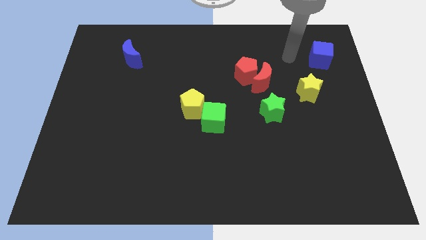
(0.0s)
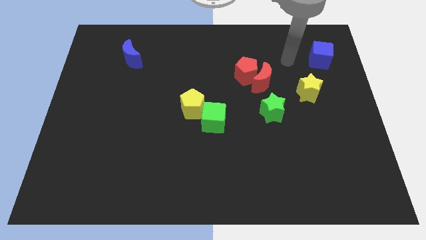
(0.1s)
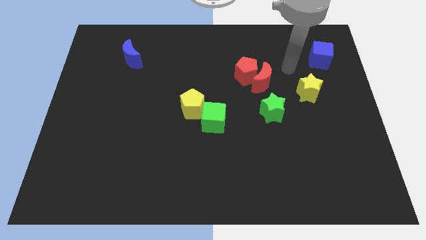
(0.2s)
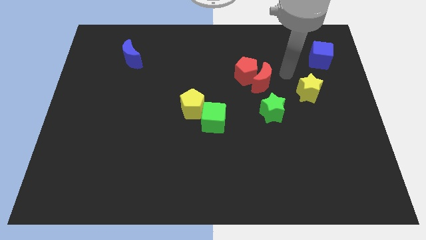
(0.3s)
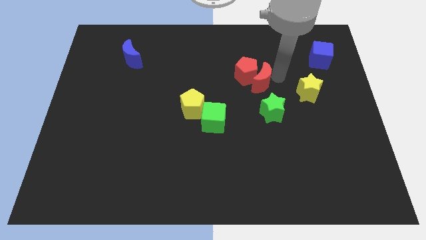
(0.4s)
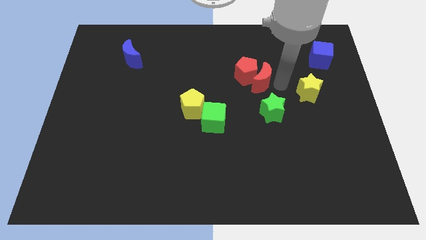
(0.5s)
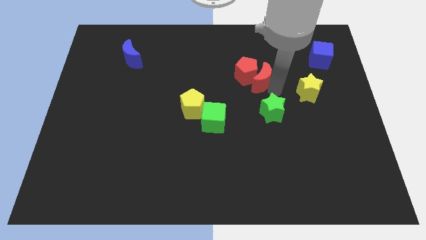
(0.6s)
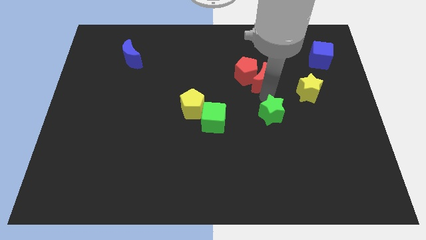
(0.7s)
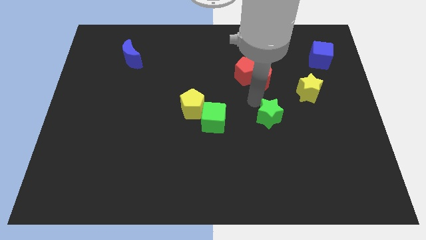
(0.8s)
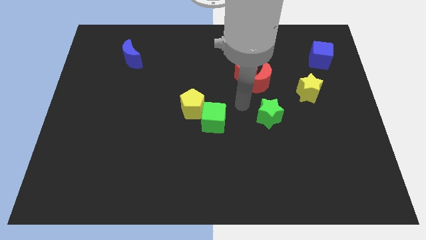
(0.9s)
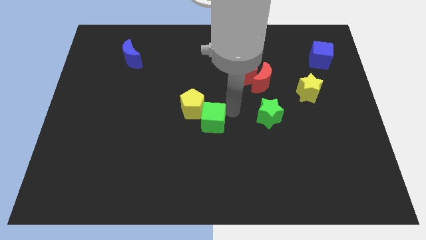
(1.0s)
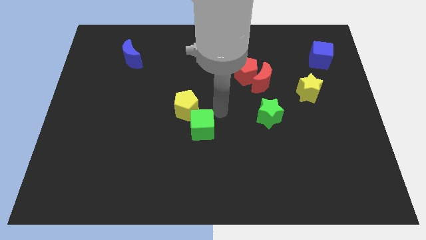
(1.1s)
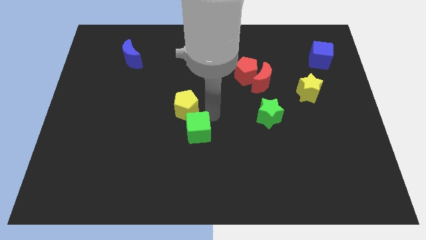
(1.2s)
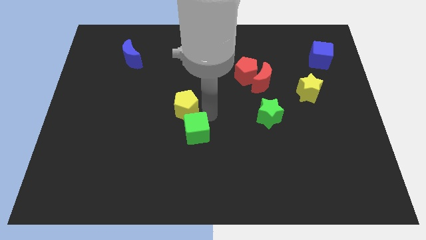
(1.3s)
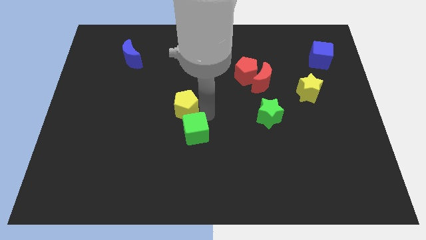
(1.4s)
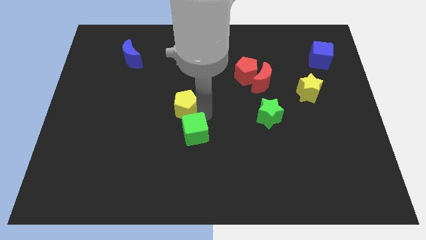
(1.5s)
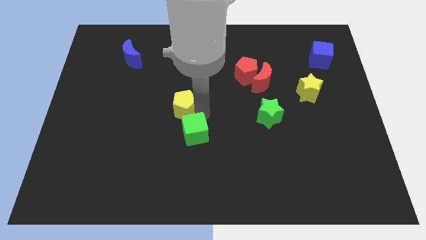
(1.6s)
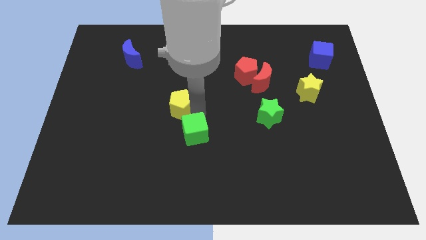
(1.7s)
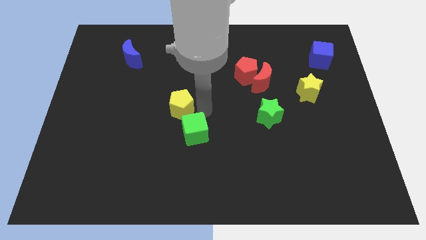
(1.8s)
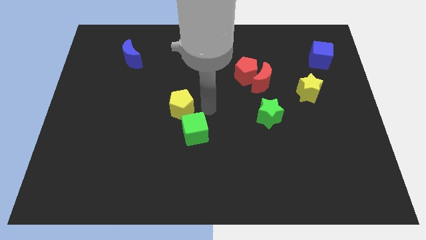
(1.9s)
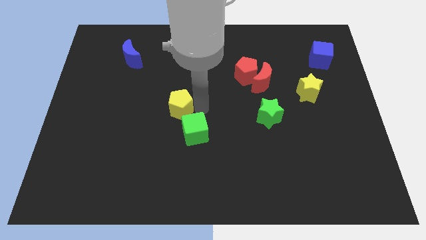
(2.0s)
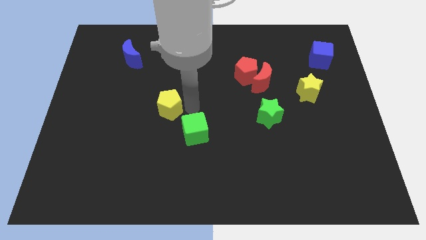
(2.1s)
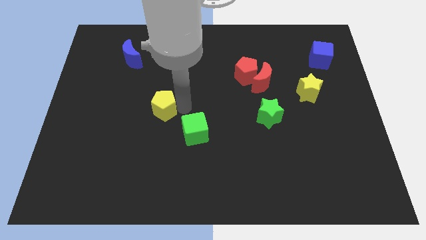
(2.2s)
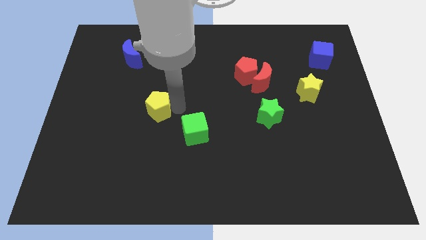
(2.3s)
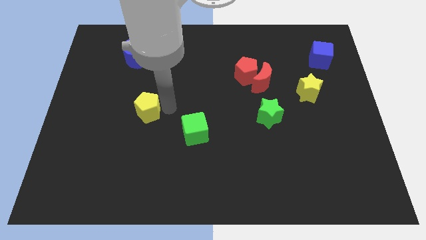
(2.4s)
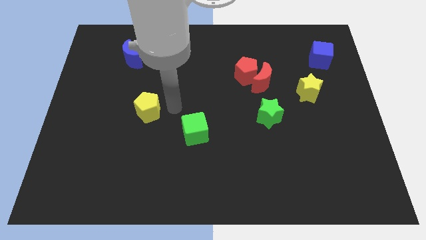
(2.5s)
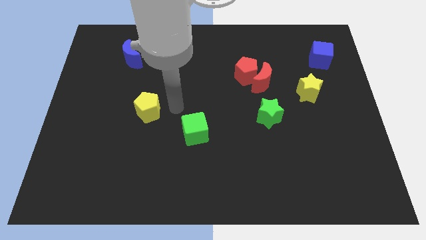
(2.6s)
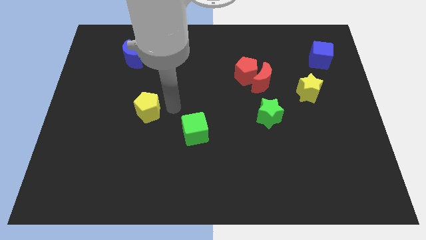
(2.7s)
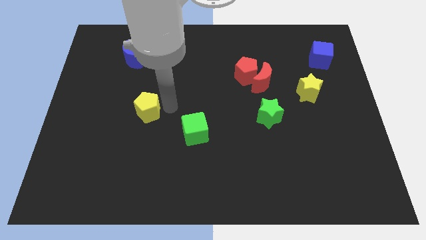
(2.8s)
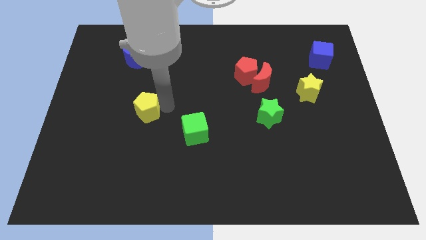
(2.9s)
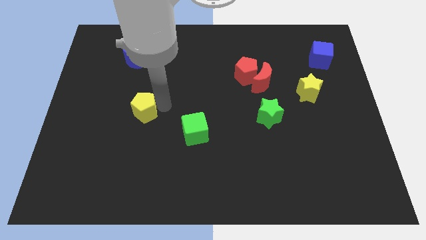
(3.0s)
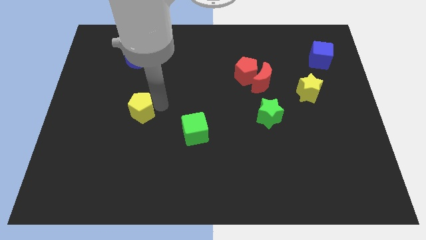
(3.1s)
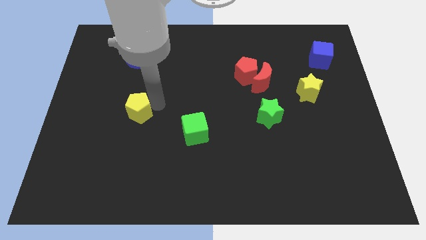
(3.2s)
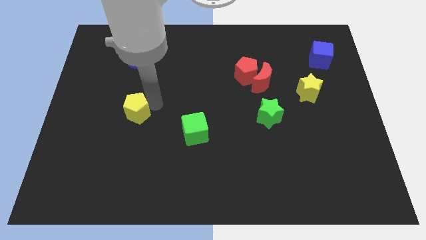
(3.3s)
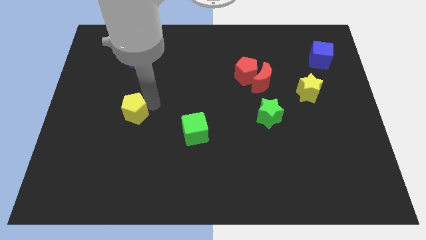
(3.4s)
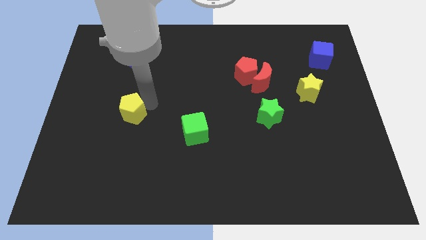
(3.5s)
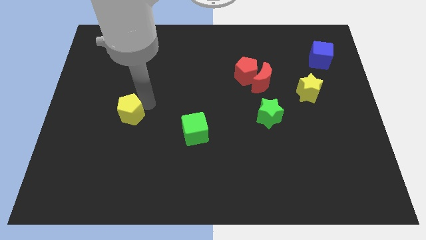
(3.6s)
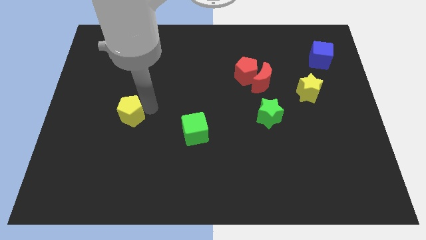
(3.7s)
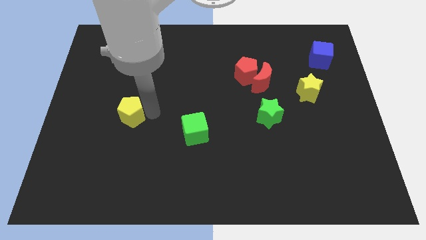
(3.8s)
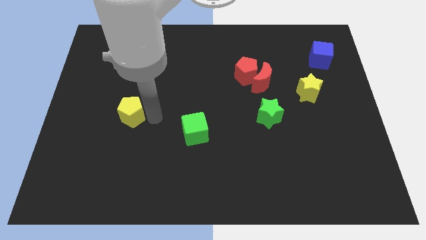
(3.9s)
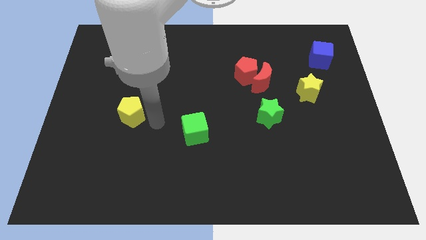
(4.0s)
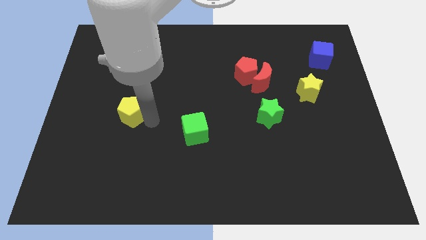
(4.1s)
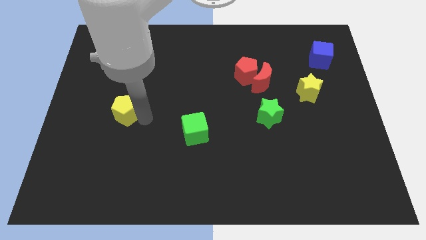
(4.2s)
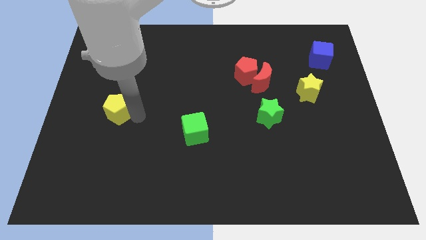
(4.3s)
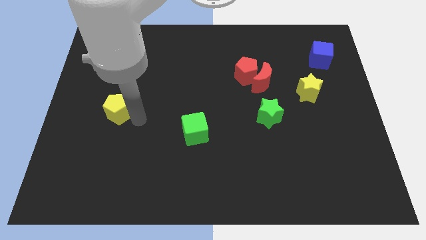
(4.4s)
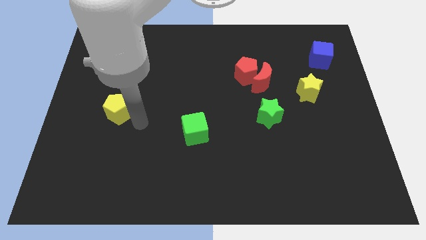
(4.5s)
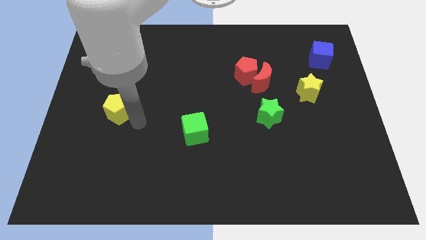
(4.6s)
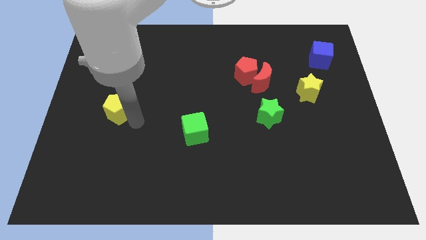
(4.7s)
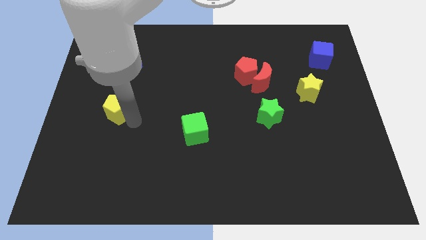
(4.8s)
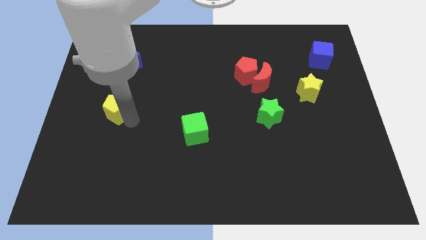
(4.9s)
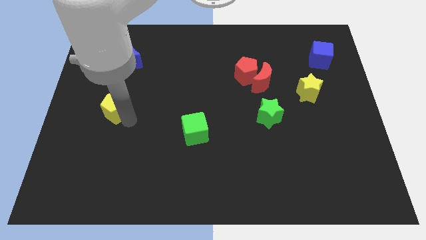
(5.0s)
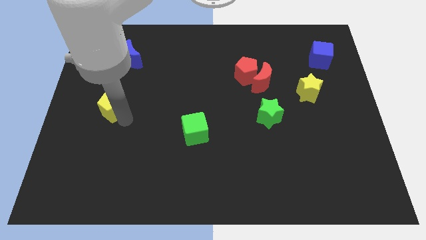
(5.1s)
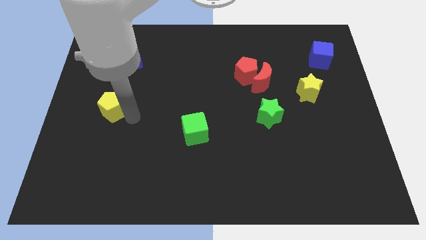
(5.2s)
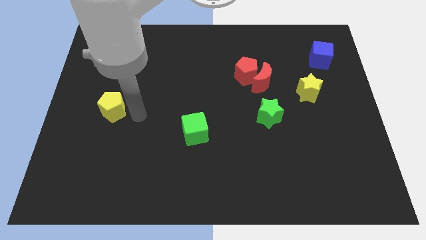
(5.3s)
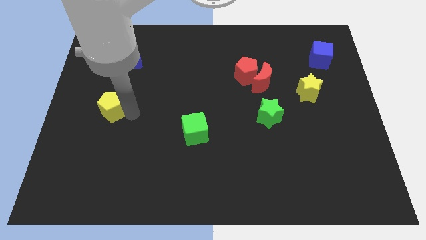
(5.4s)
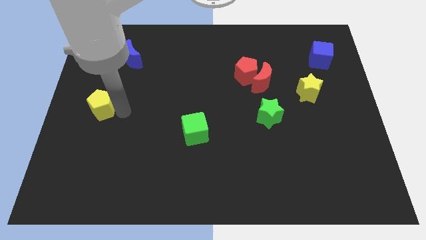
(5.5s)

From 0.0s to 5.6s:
slide the yellow pentagon to the left side

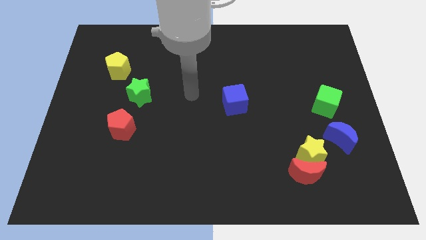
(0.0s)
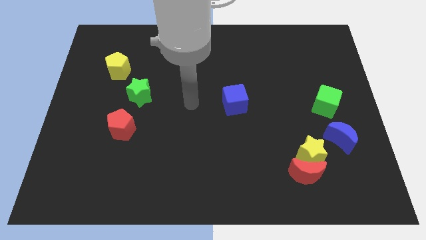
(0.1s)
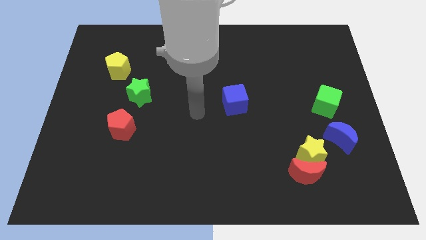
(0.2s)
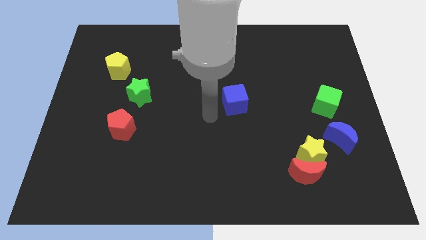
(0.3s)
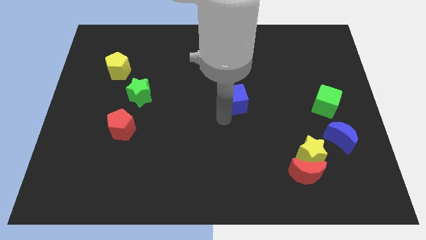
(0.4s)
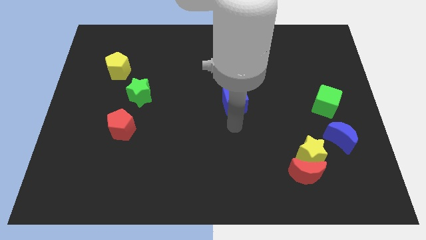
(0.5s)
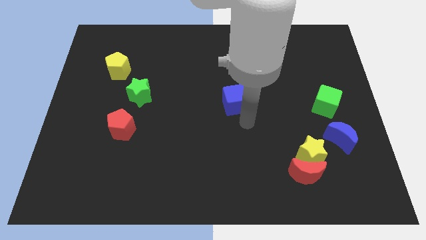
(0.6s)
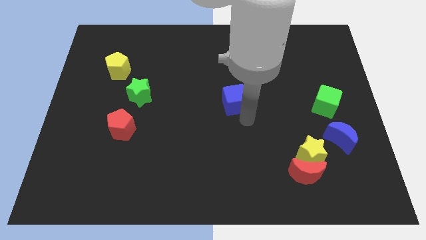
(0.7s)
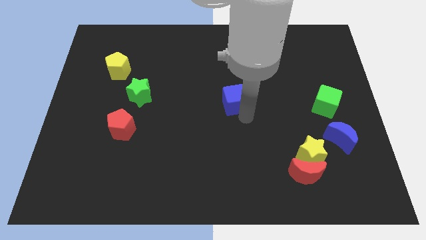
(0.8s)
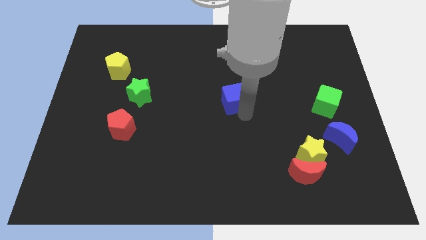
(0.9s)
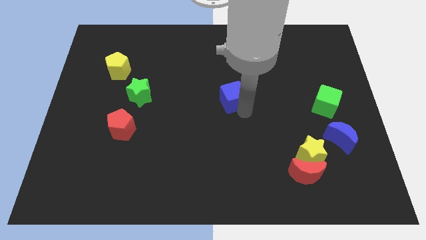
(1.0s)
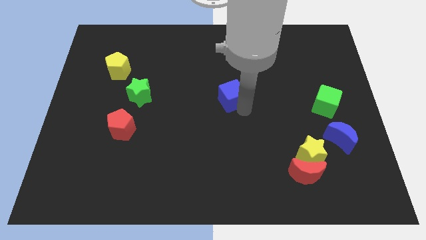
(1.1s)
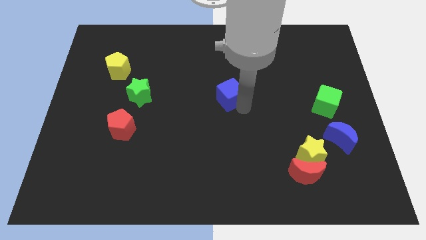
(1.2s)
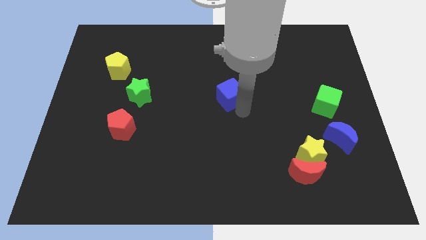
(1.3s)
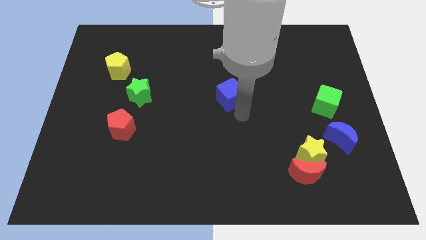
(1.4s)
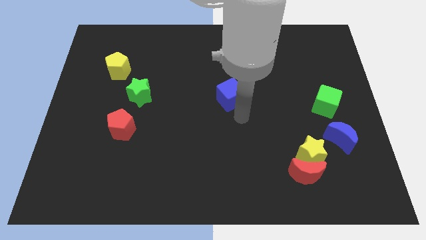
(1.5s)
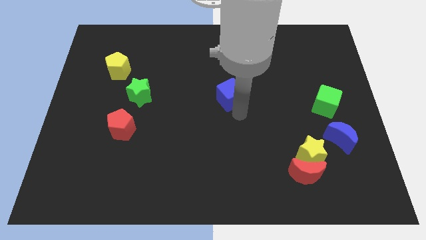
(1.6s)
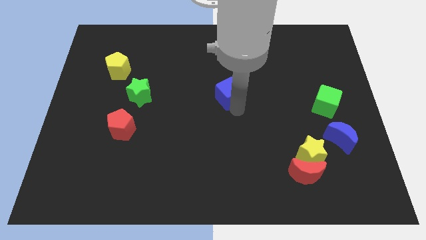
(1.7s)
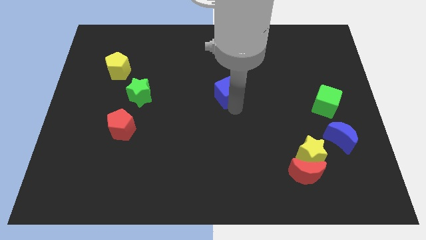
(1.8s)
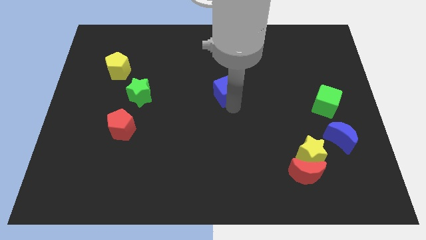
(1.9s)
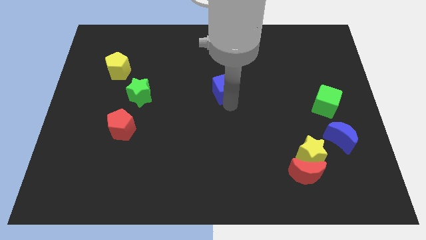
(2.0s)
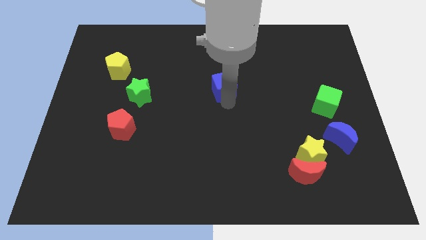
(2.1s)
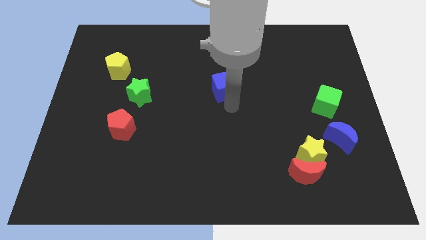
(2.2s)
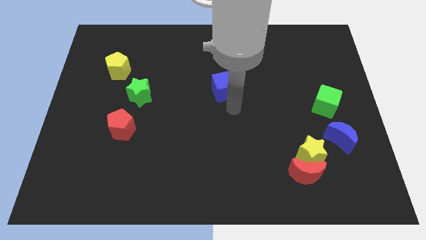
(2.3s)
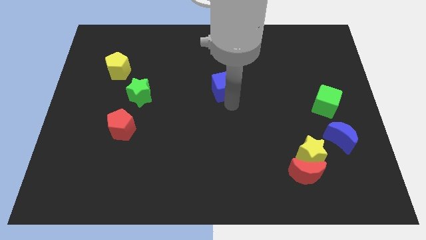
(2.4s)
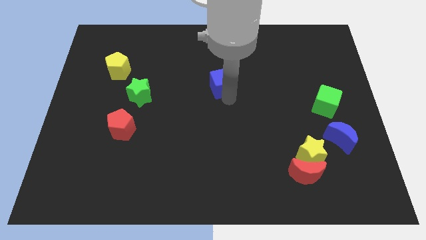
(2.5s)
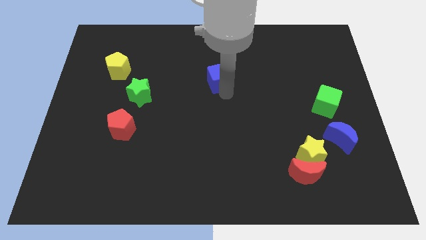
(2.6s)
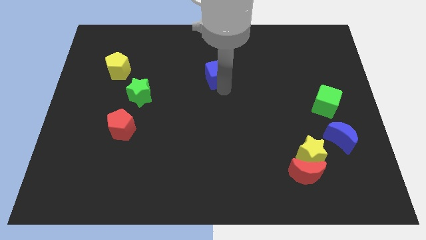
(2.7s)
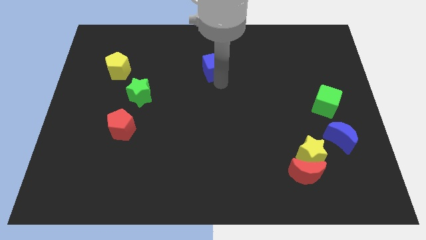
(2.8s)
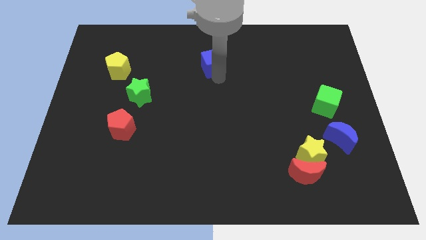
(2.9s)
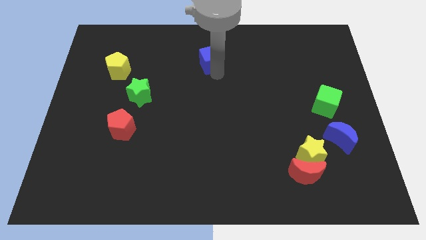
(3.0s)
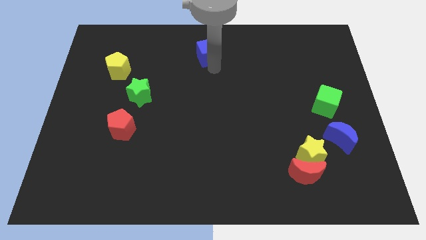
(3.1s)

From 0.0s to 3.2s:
push the blue cube to the towards your base
